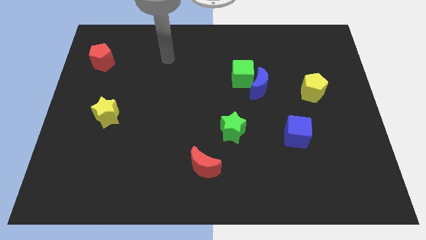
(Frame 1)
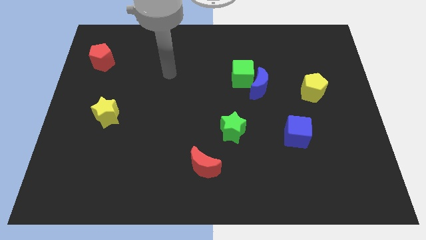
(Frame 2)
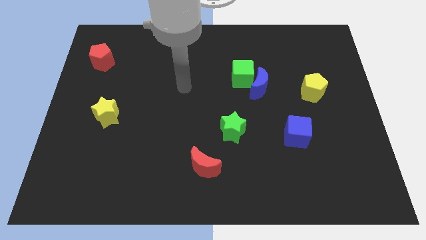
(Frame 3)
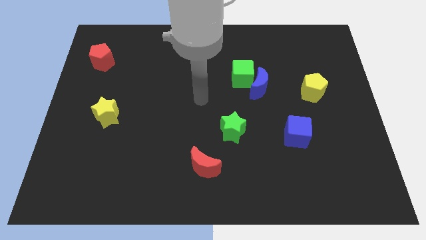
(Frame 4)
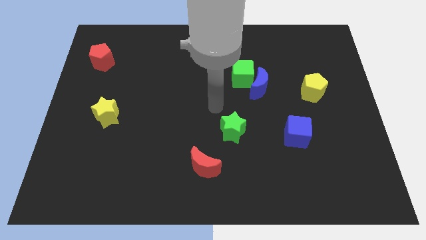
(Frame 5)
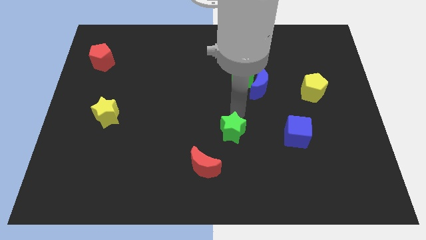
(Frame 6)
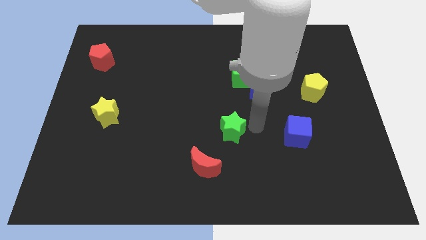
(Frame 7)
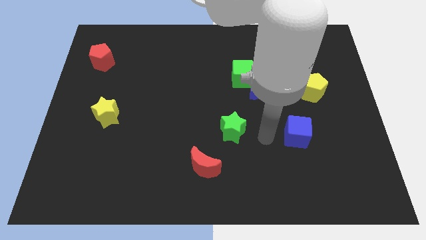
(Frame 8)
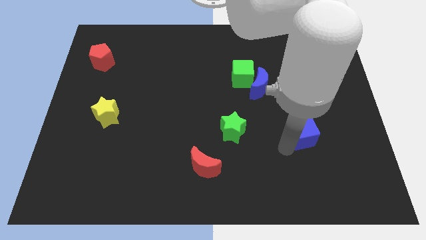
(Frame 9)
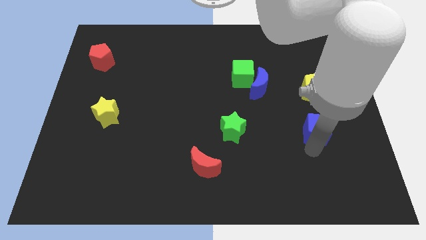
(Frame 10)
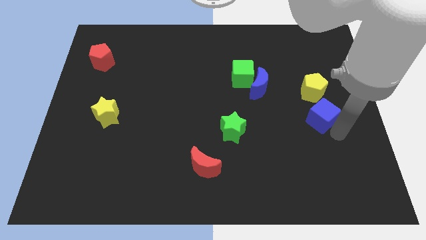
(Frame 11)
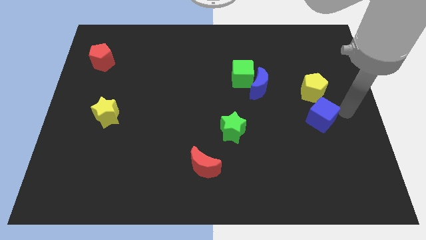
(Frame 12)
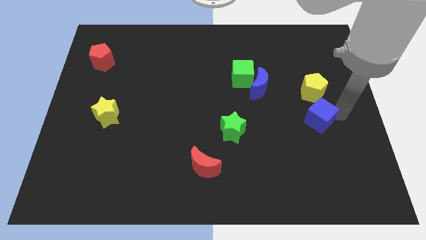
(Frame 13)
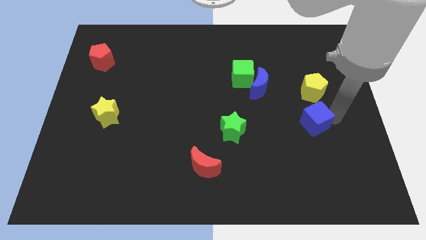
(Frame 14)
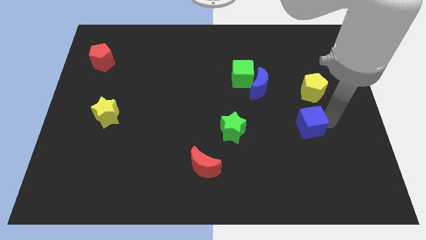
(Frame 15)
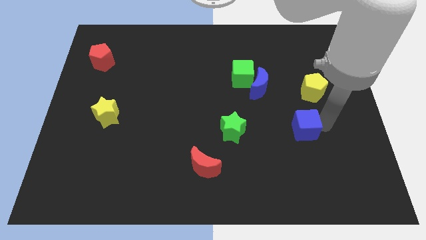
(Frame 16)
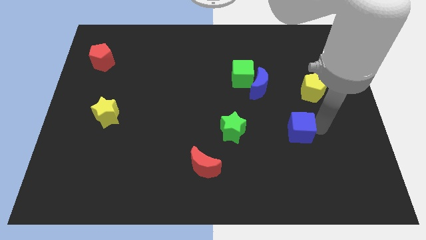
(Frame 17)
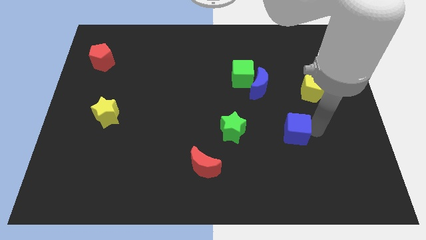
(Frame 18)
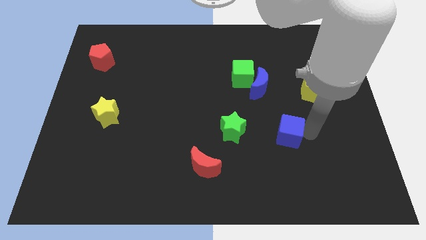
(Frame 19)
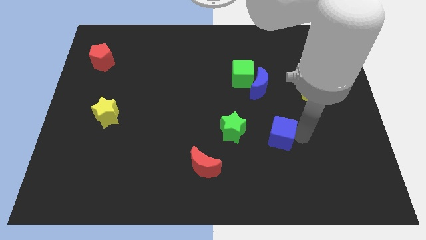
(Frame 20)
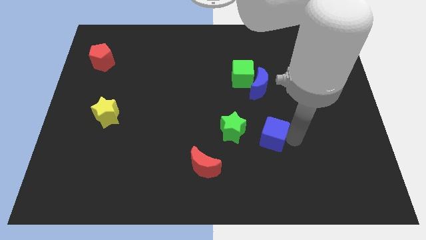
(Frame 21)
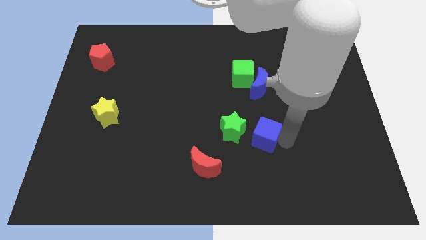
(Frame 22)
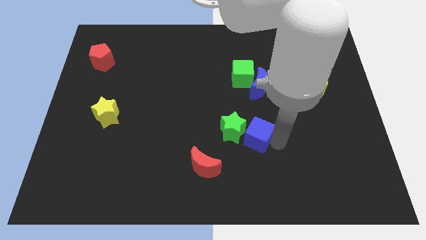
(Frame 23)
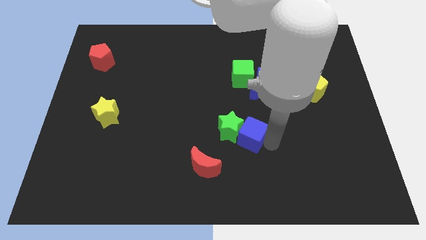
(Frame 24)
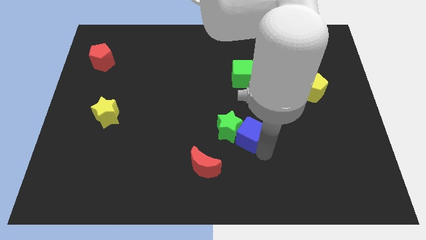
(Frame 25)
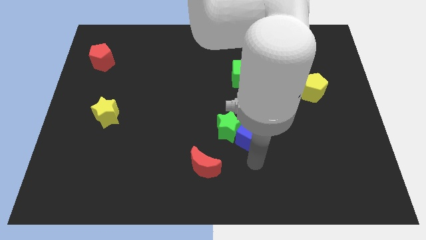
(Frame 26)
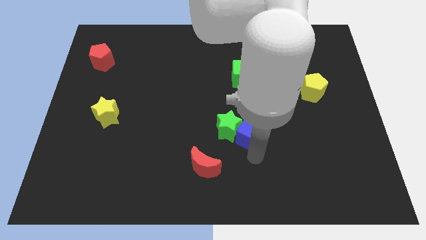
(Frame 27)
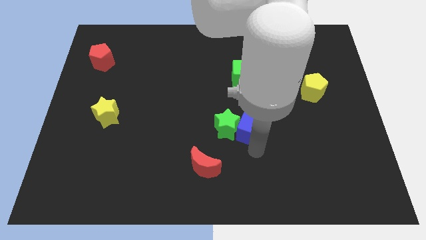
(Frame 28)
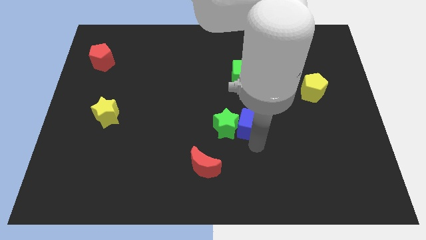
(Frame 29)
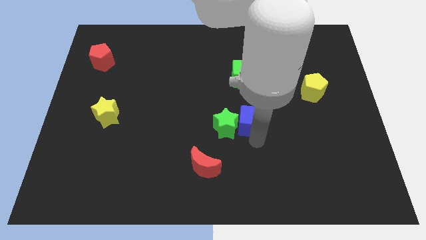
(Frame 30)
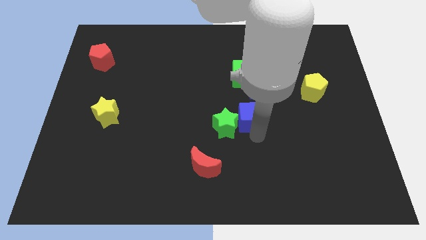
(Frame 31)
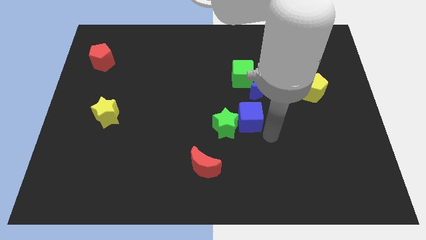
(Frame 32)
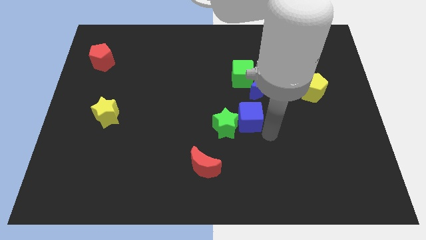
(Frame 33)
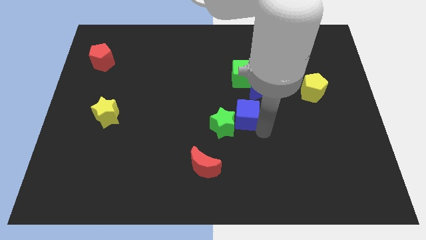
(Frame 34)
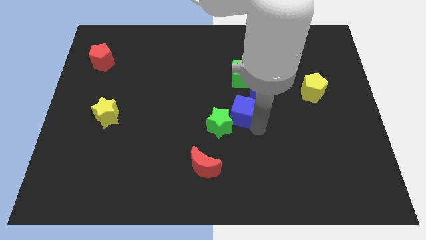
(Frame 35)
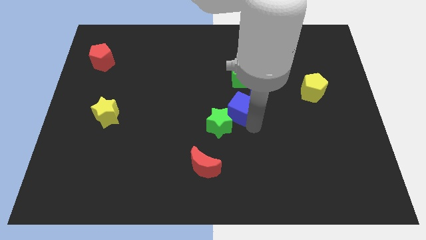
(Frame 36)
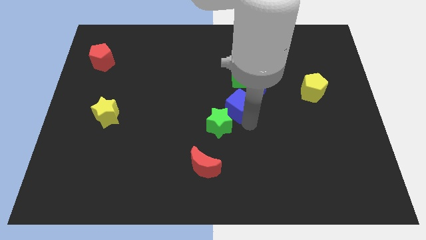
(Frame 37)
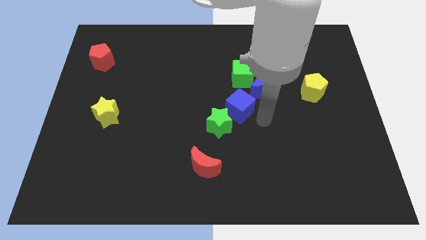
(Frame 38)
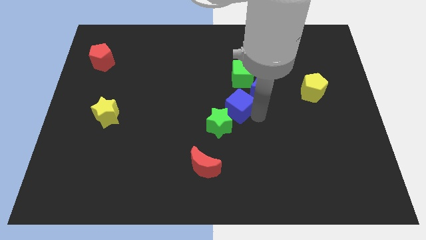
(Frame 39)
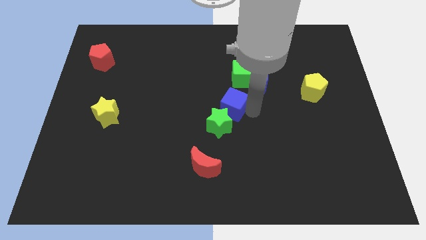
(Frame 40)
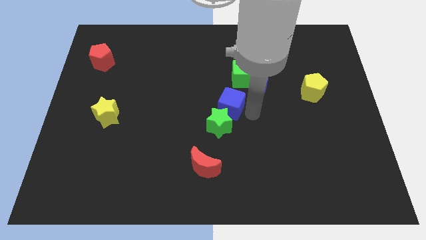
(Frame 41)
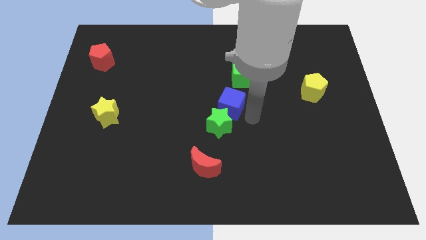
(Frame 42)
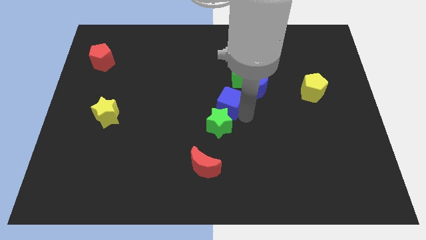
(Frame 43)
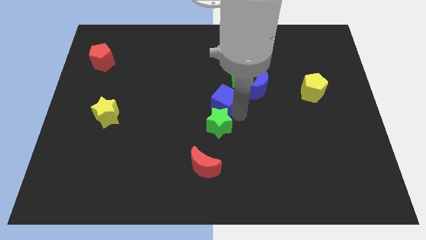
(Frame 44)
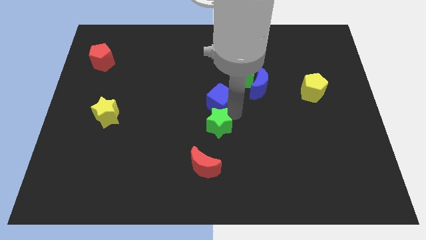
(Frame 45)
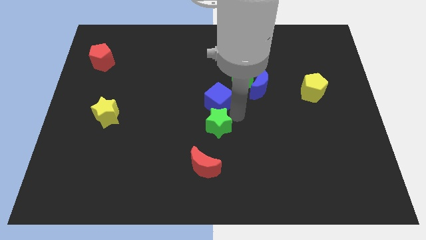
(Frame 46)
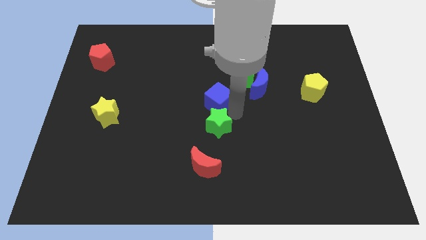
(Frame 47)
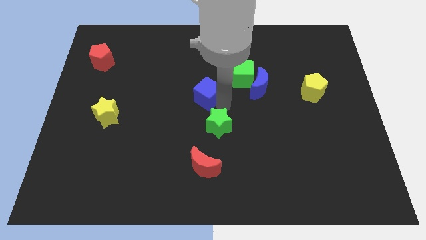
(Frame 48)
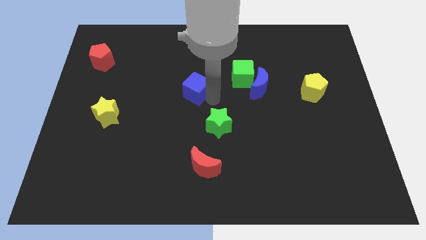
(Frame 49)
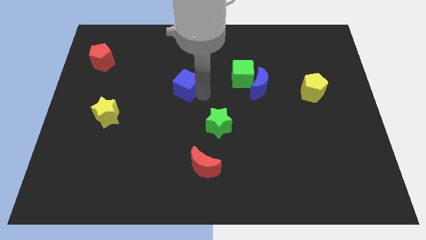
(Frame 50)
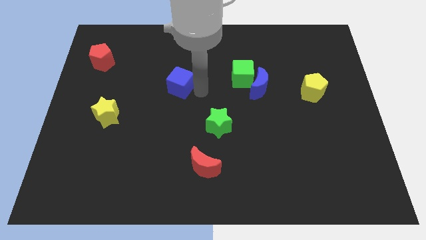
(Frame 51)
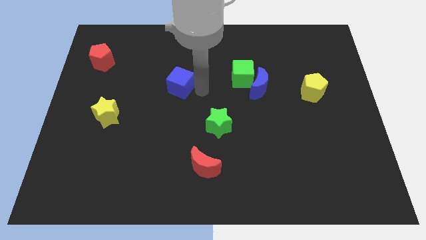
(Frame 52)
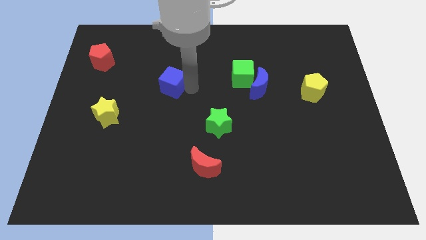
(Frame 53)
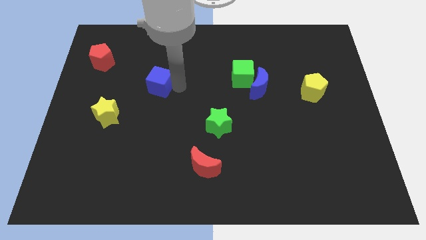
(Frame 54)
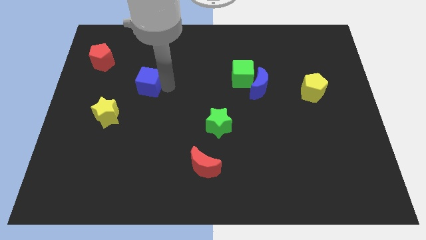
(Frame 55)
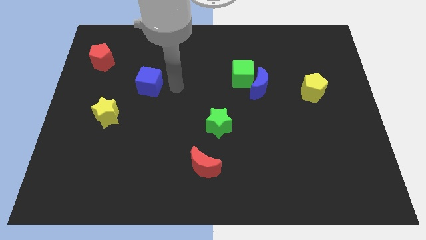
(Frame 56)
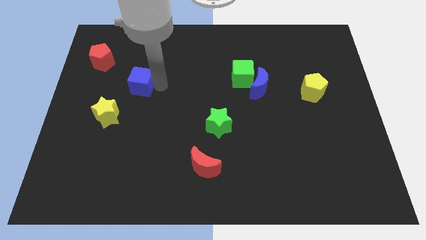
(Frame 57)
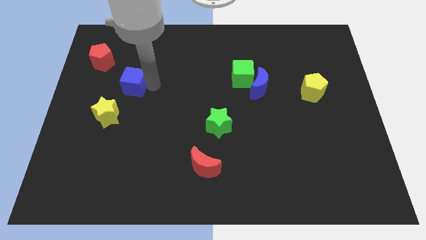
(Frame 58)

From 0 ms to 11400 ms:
put the blue cube above the yellow star

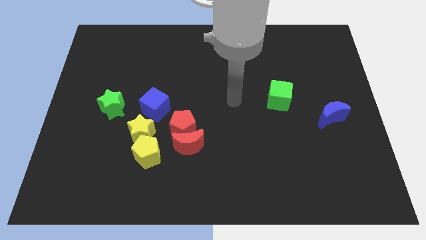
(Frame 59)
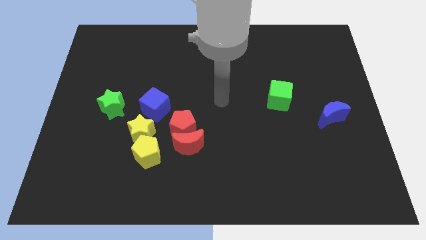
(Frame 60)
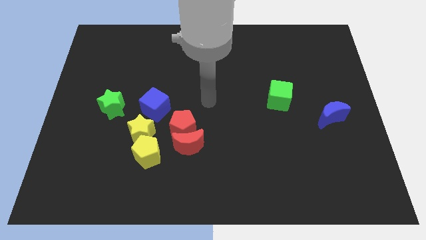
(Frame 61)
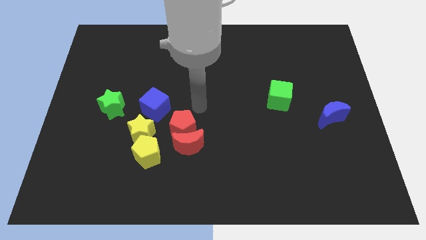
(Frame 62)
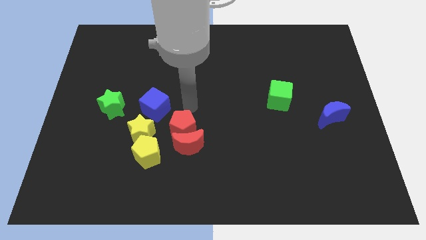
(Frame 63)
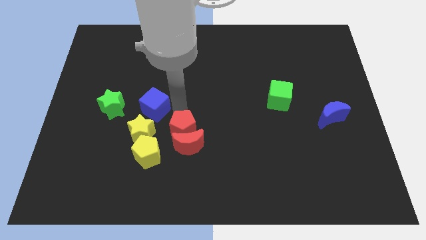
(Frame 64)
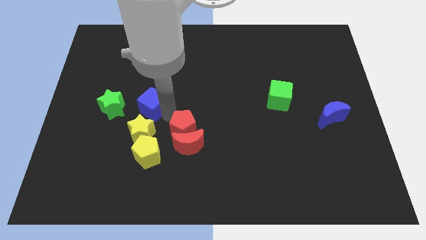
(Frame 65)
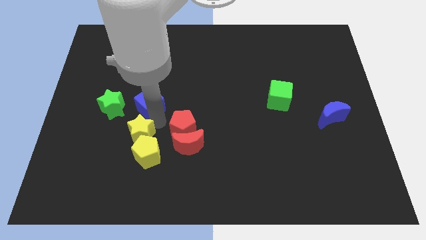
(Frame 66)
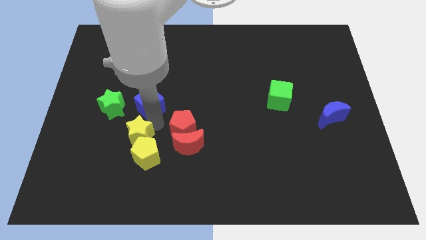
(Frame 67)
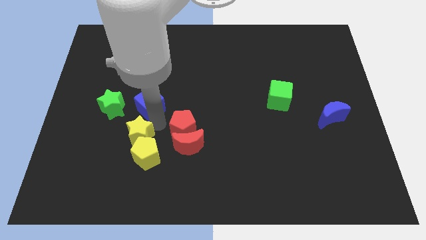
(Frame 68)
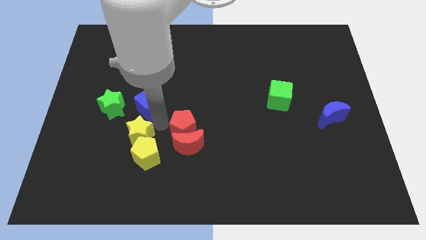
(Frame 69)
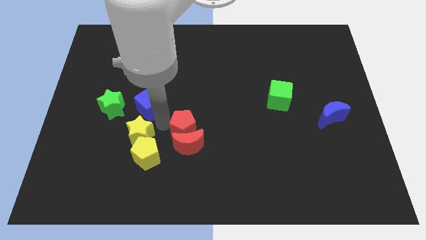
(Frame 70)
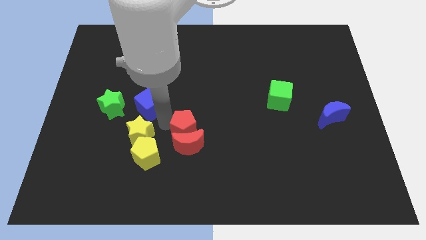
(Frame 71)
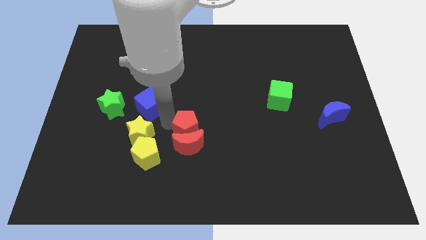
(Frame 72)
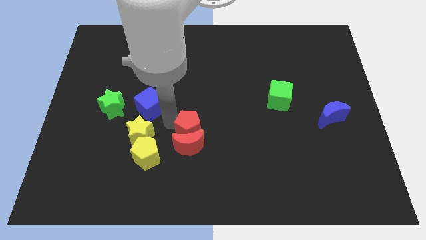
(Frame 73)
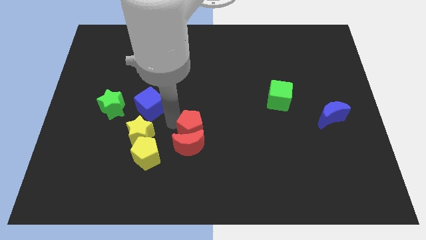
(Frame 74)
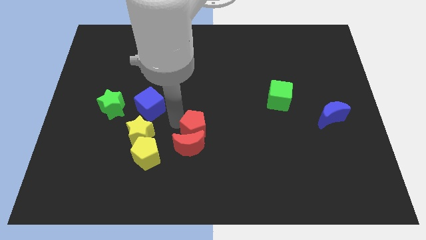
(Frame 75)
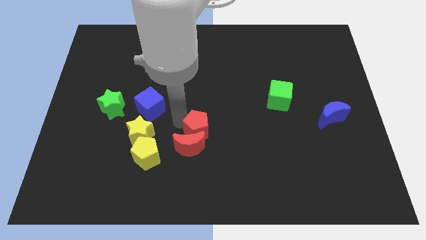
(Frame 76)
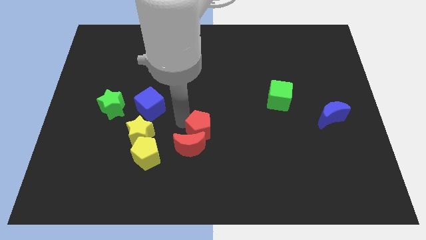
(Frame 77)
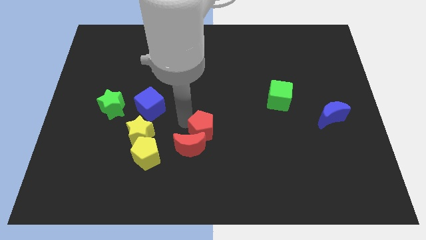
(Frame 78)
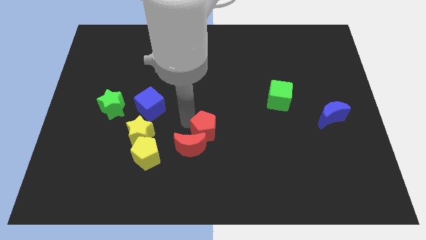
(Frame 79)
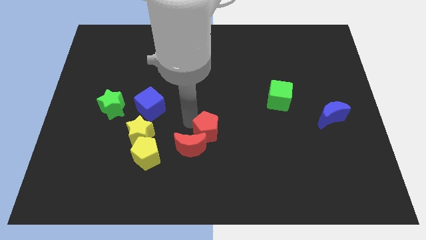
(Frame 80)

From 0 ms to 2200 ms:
slide the red pentagon right of the red moon

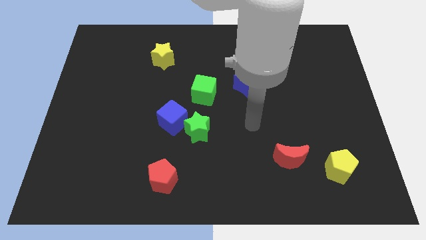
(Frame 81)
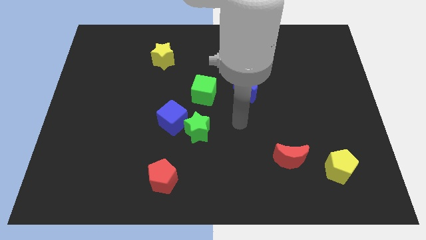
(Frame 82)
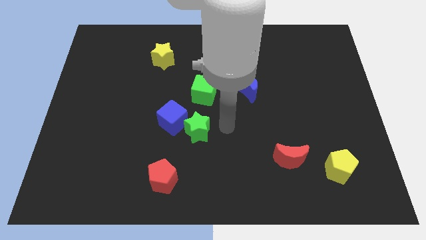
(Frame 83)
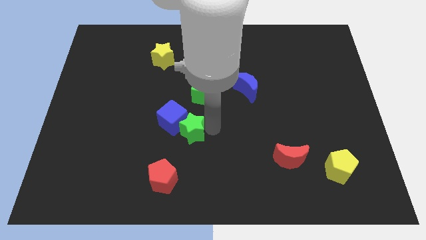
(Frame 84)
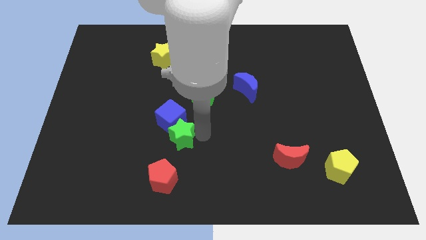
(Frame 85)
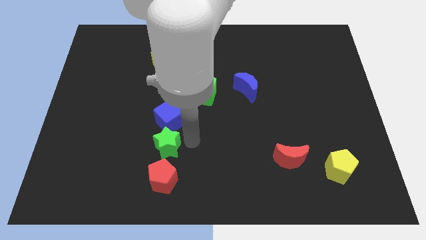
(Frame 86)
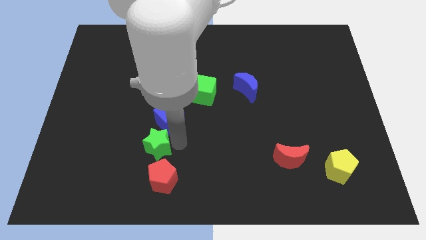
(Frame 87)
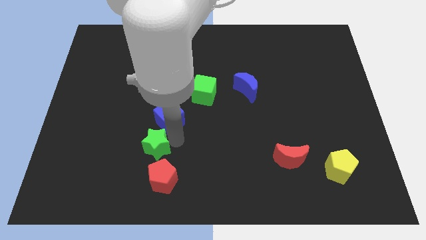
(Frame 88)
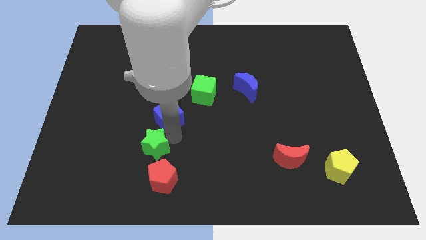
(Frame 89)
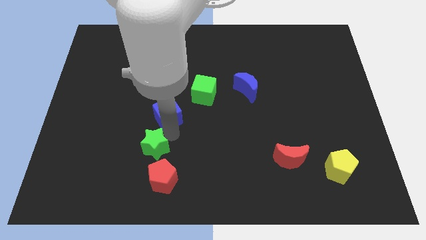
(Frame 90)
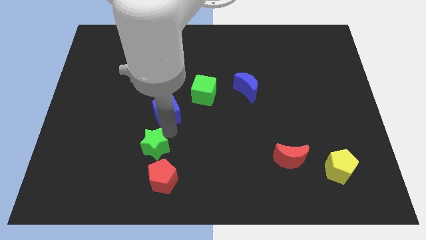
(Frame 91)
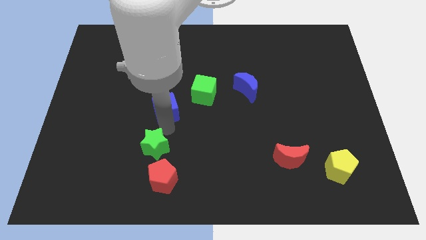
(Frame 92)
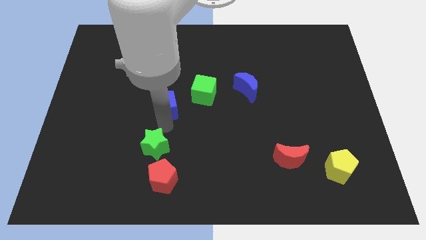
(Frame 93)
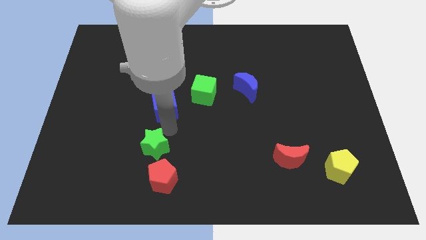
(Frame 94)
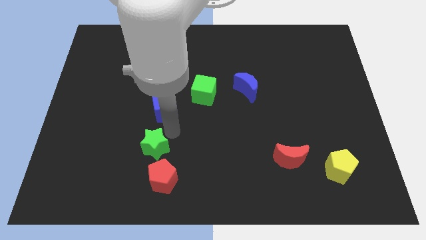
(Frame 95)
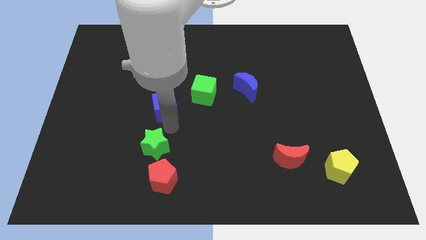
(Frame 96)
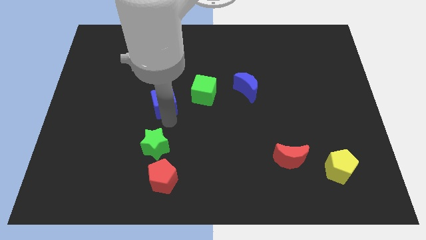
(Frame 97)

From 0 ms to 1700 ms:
move the blue cube below the yellow star
